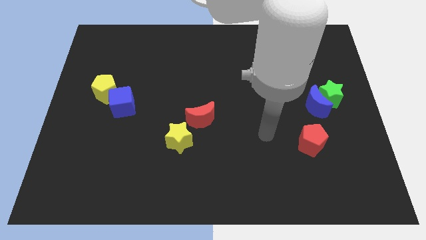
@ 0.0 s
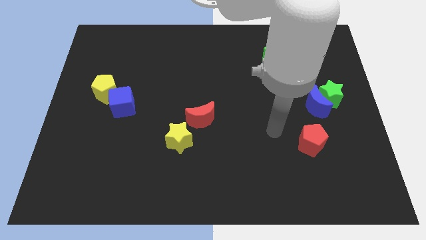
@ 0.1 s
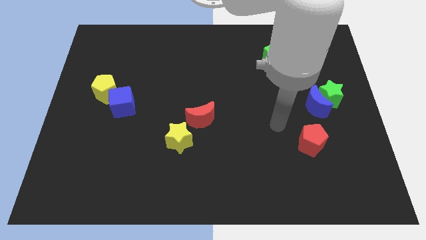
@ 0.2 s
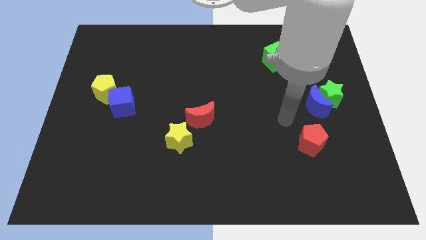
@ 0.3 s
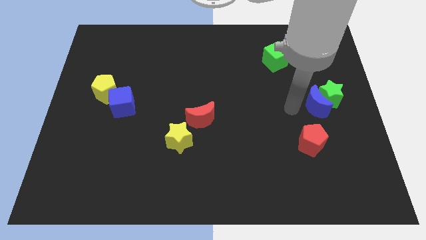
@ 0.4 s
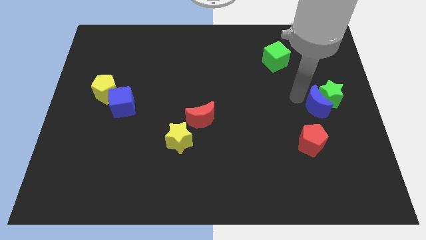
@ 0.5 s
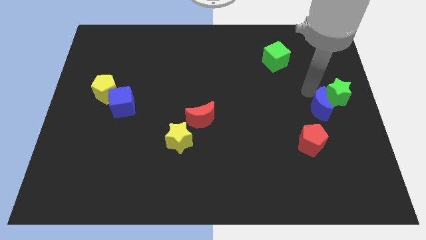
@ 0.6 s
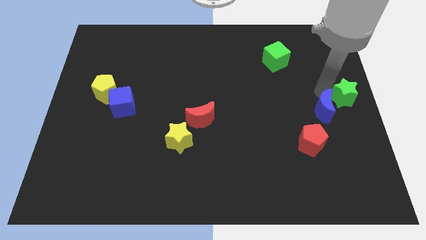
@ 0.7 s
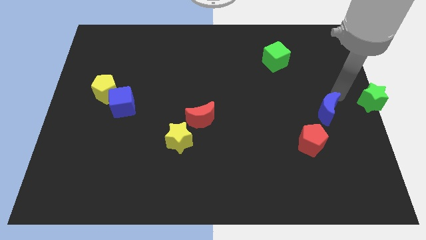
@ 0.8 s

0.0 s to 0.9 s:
separate the blue moon from the green star

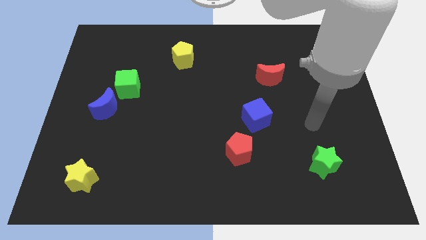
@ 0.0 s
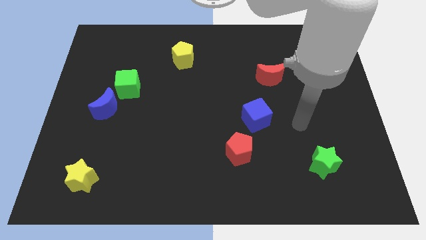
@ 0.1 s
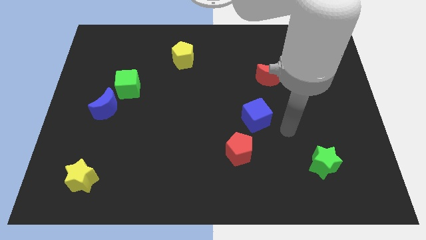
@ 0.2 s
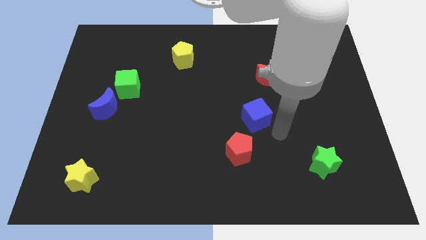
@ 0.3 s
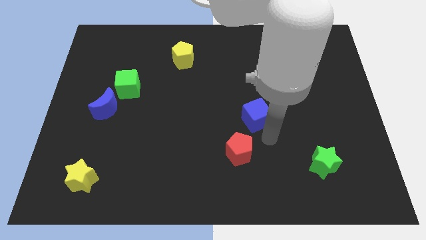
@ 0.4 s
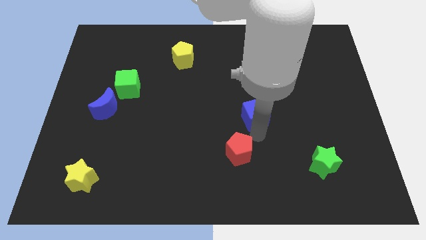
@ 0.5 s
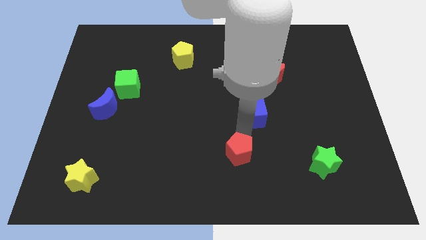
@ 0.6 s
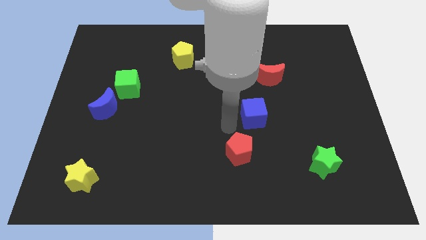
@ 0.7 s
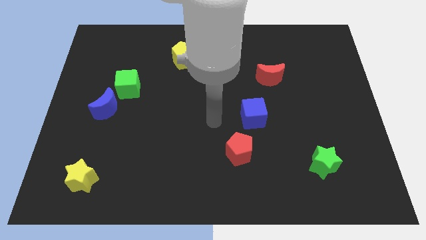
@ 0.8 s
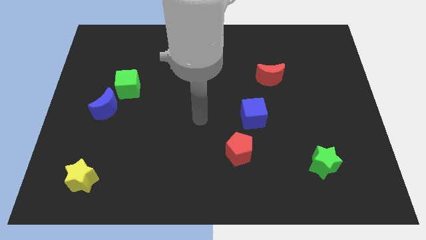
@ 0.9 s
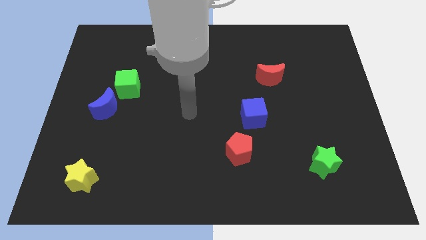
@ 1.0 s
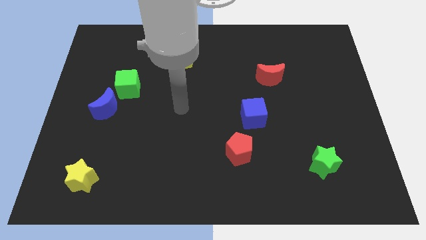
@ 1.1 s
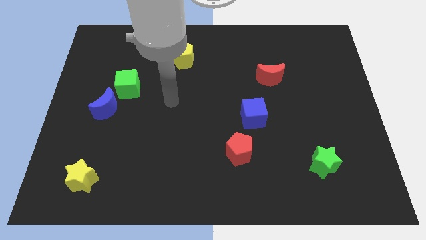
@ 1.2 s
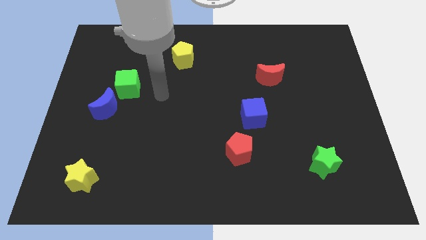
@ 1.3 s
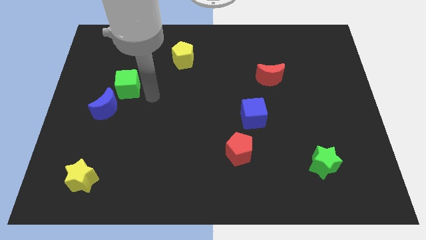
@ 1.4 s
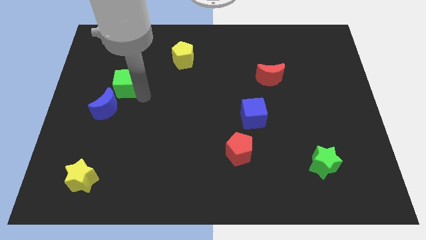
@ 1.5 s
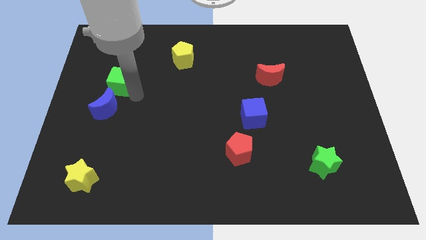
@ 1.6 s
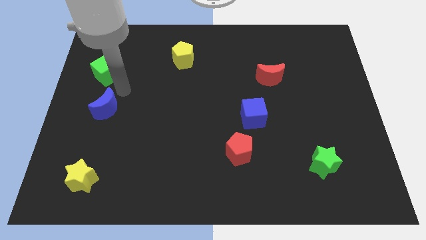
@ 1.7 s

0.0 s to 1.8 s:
pull the blue moon apart from the green cube

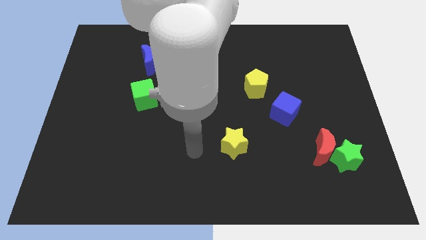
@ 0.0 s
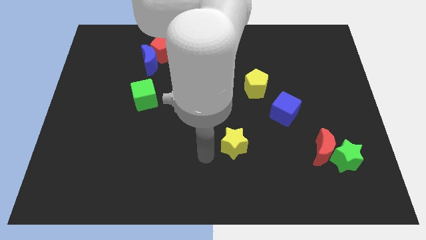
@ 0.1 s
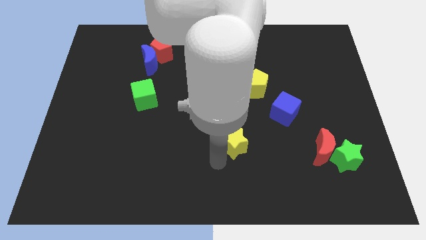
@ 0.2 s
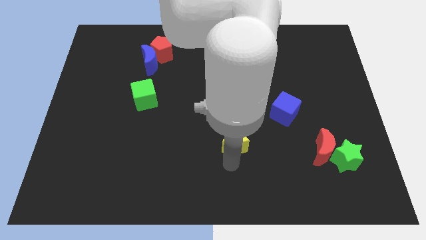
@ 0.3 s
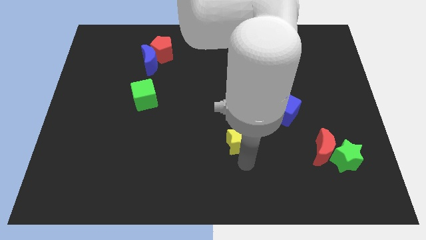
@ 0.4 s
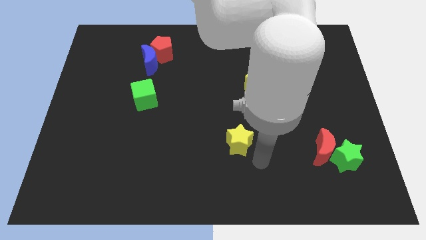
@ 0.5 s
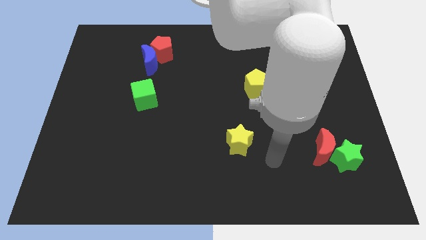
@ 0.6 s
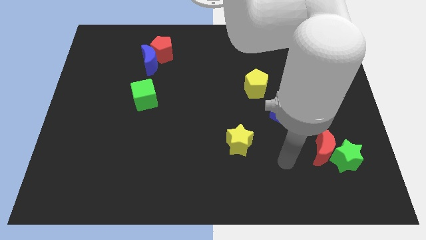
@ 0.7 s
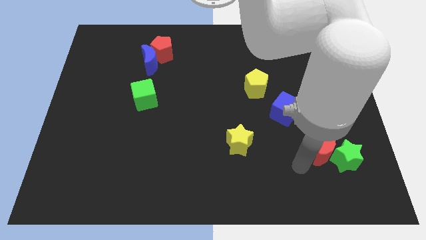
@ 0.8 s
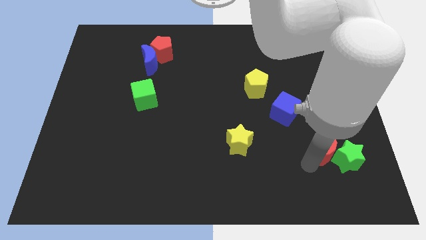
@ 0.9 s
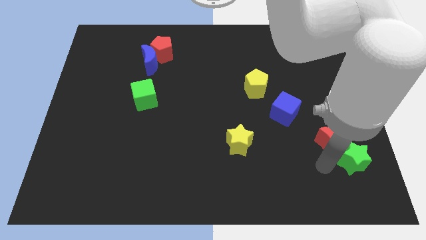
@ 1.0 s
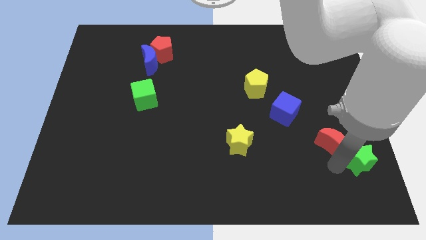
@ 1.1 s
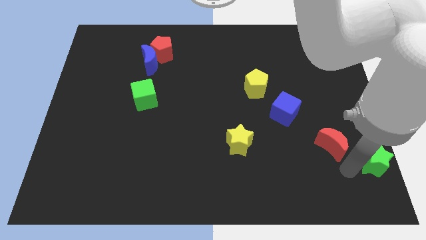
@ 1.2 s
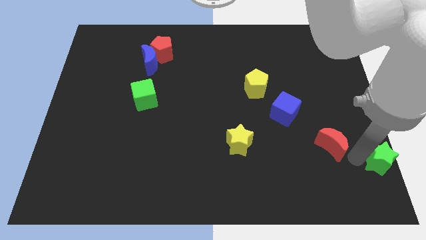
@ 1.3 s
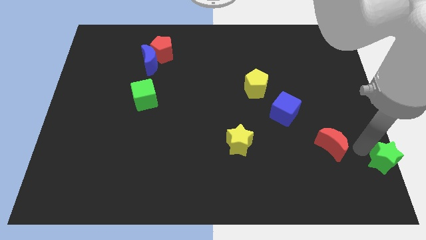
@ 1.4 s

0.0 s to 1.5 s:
separate the red moon from the green star

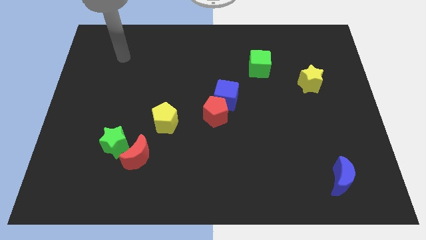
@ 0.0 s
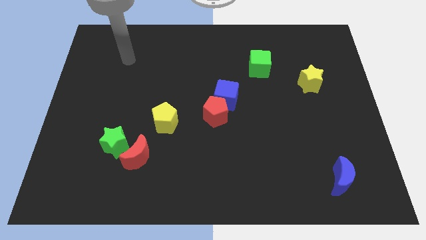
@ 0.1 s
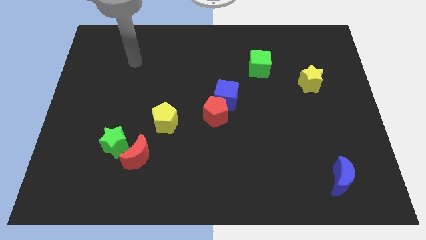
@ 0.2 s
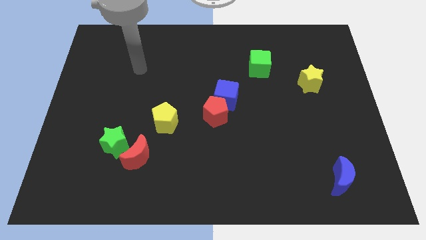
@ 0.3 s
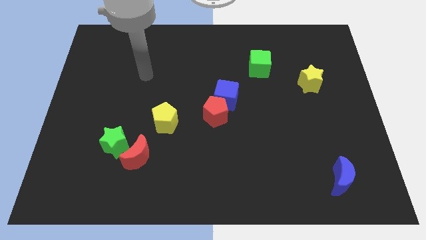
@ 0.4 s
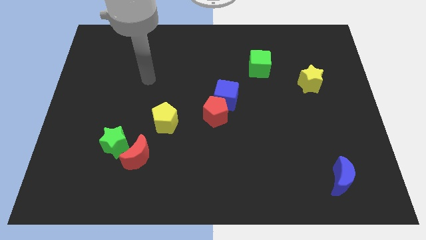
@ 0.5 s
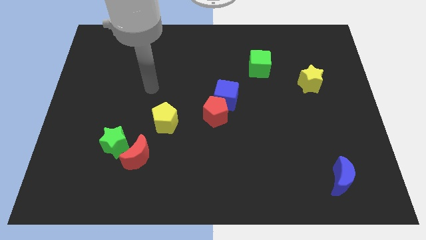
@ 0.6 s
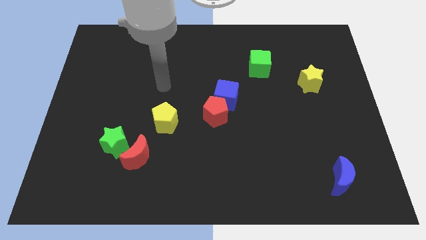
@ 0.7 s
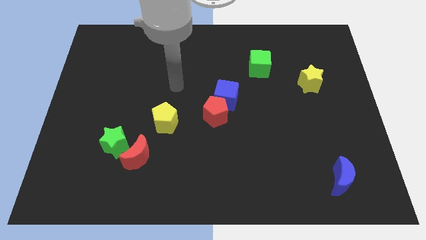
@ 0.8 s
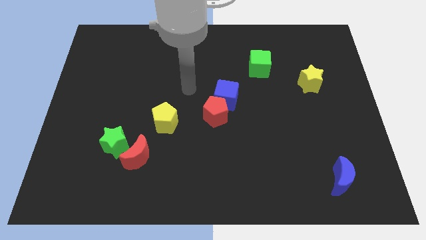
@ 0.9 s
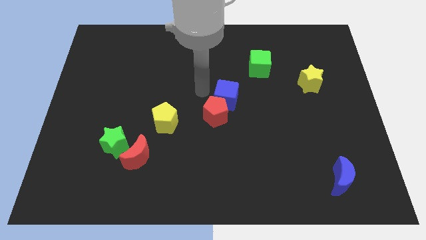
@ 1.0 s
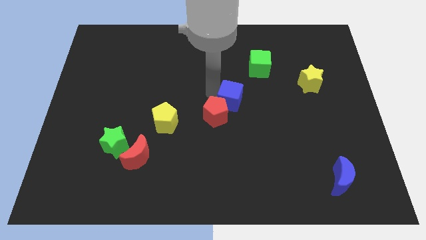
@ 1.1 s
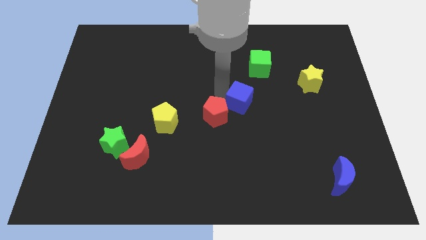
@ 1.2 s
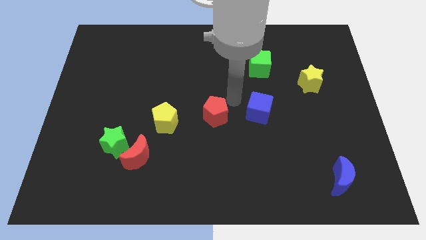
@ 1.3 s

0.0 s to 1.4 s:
pull the red pentagon apart from the blue cube

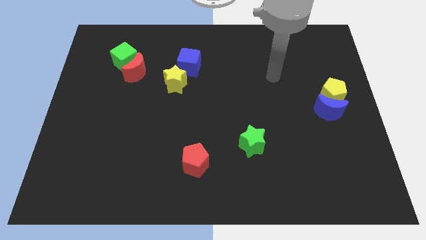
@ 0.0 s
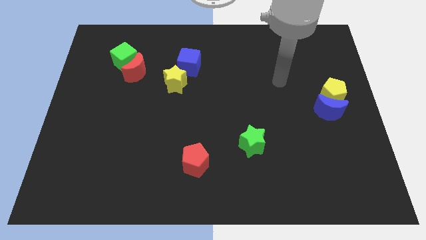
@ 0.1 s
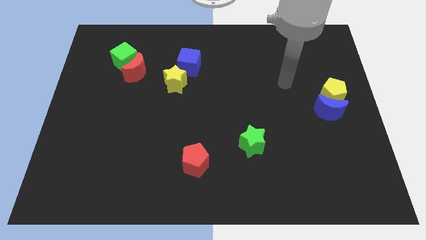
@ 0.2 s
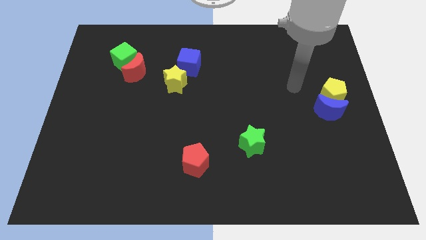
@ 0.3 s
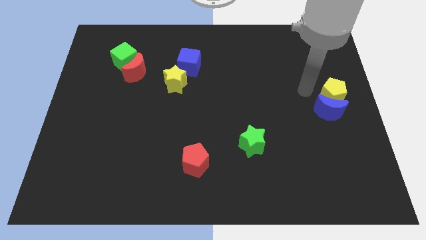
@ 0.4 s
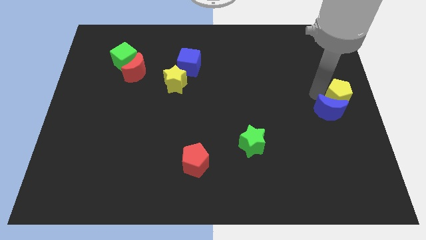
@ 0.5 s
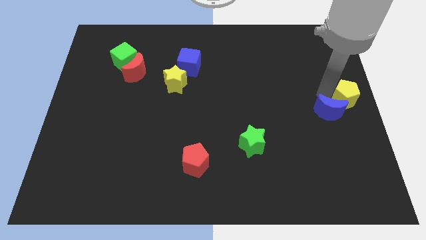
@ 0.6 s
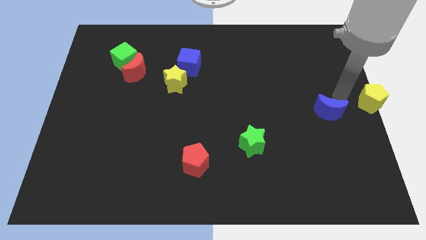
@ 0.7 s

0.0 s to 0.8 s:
pull the blue moon apart from the yellow pentagon

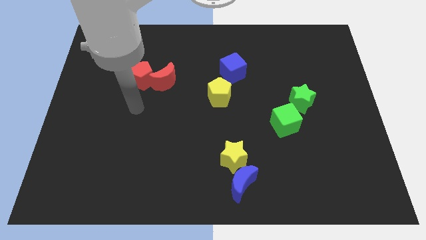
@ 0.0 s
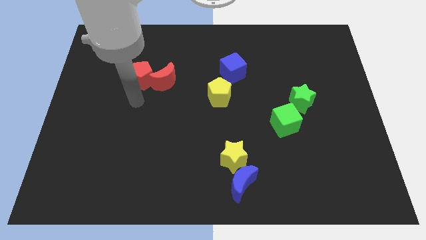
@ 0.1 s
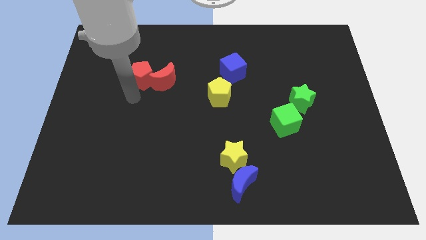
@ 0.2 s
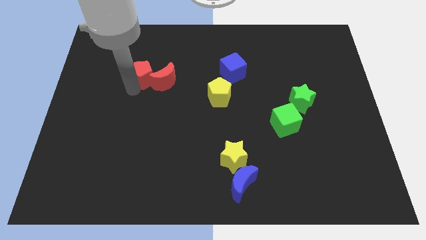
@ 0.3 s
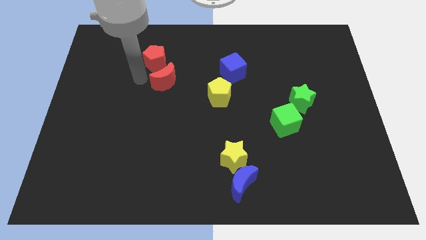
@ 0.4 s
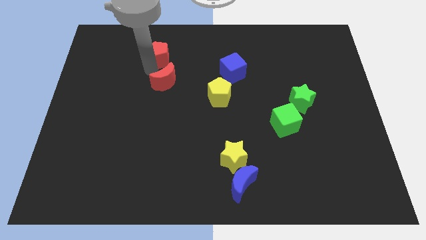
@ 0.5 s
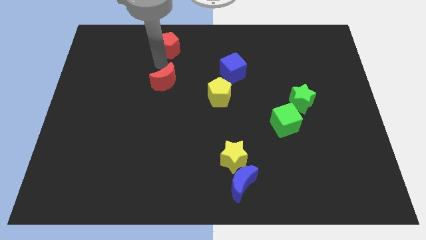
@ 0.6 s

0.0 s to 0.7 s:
move the red moon away from the red pentagon

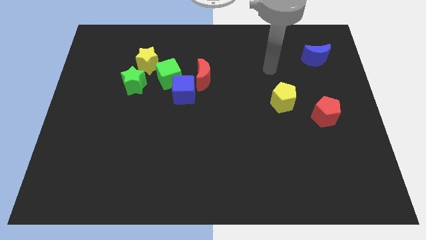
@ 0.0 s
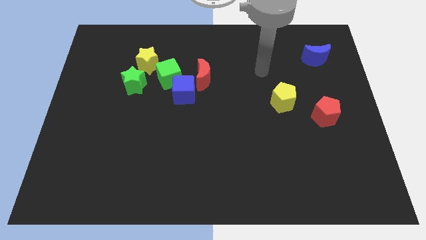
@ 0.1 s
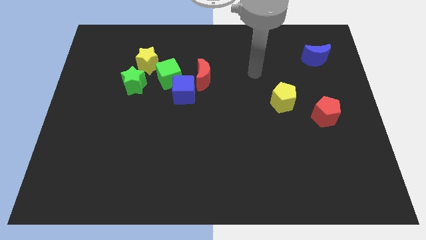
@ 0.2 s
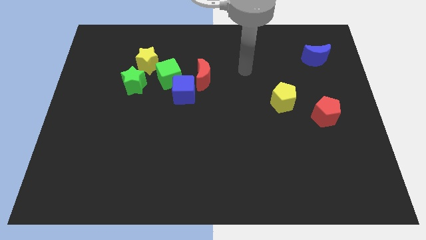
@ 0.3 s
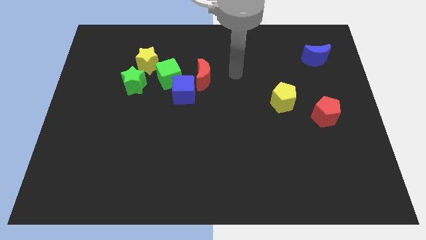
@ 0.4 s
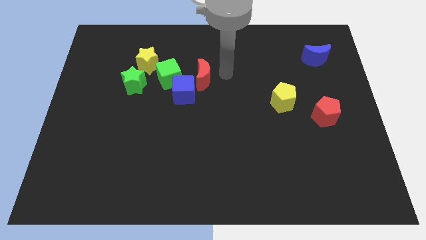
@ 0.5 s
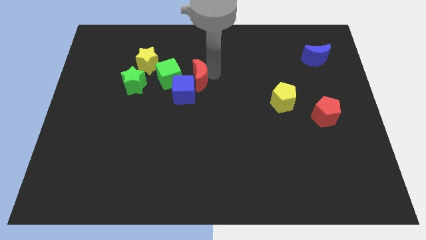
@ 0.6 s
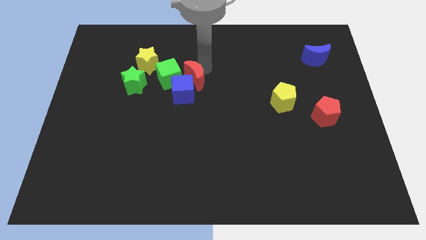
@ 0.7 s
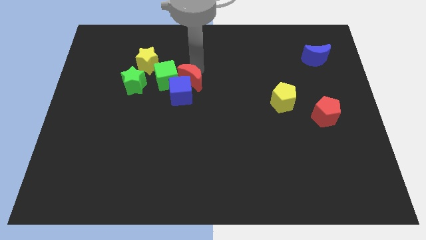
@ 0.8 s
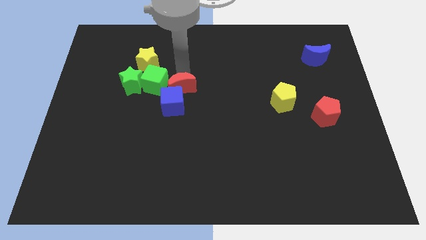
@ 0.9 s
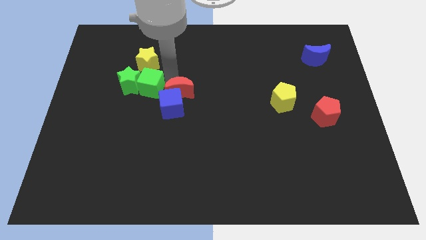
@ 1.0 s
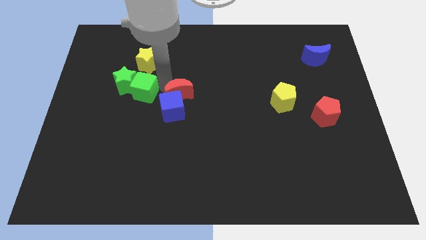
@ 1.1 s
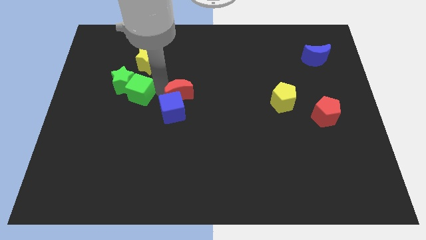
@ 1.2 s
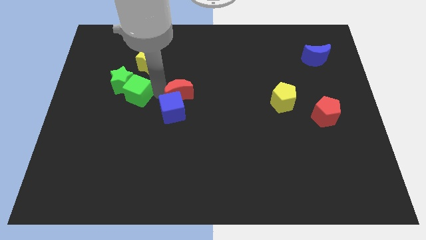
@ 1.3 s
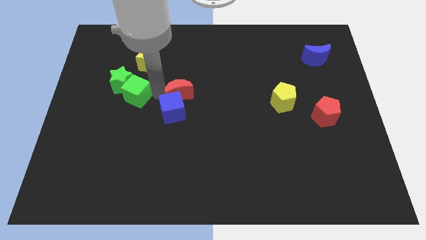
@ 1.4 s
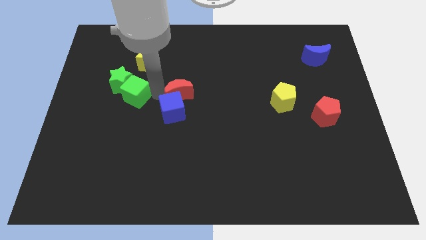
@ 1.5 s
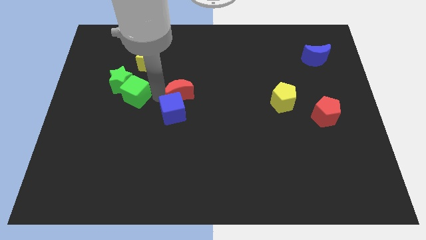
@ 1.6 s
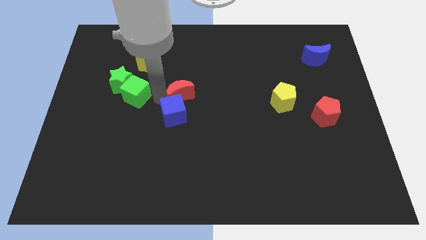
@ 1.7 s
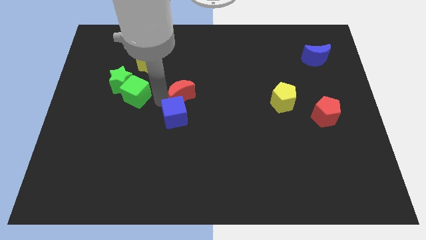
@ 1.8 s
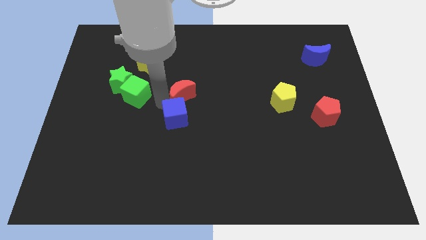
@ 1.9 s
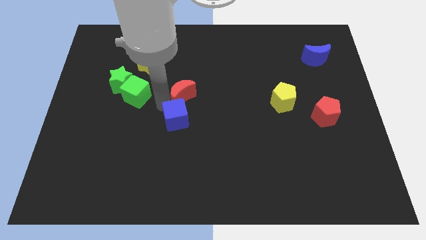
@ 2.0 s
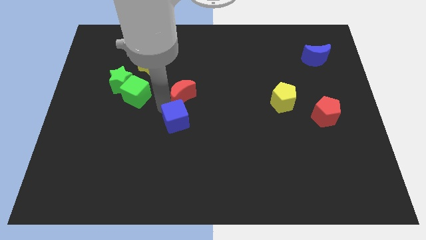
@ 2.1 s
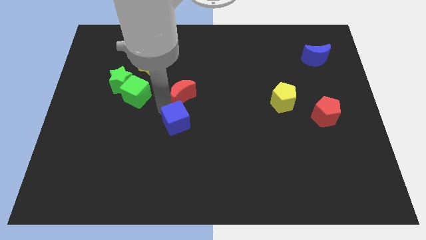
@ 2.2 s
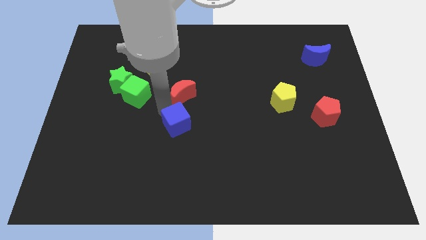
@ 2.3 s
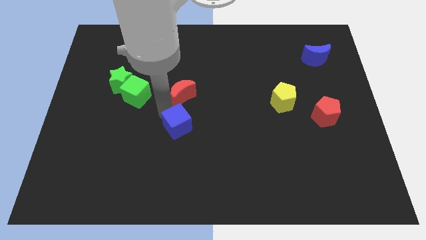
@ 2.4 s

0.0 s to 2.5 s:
pull the blue cube apart from the green cube and red moon
